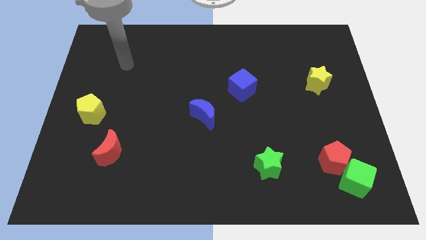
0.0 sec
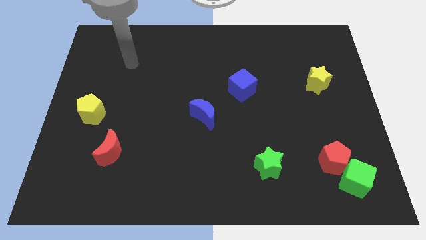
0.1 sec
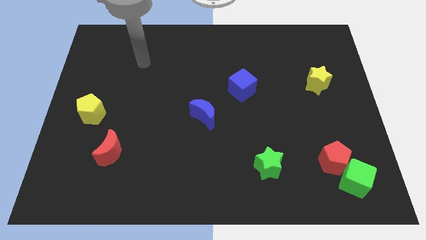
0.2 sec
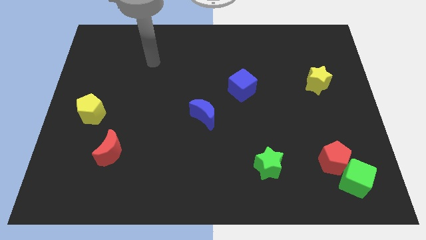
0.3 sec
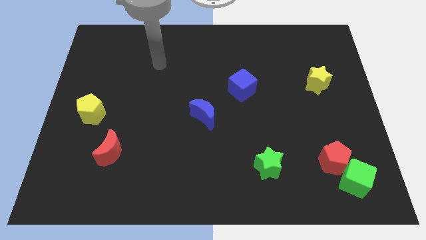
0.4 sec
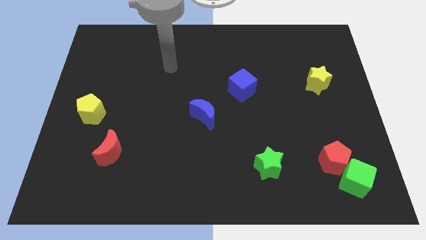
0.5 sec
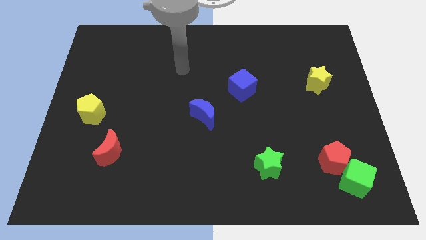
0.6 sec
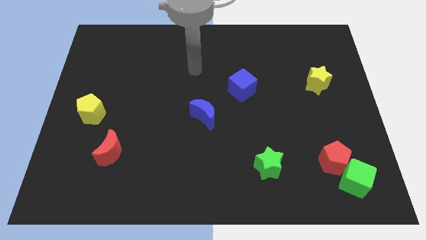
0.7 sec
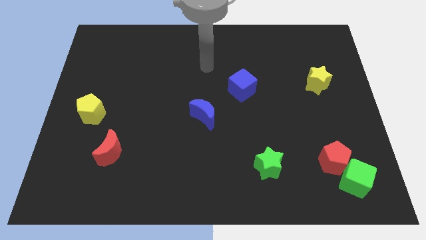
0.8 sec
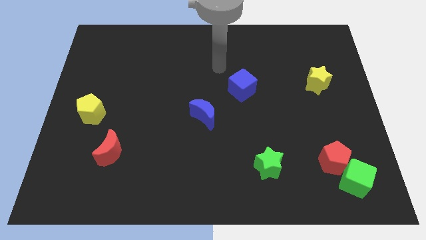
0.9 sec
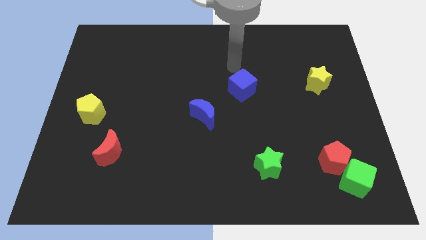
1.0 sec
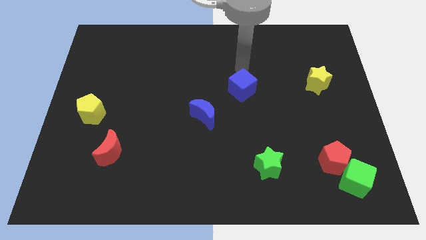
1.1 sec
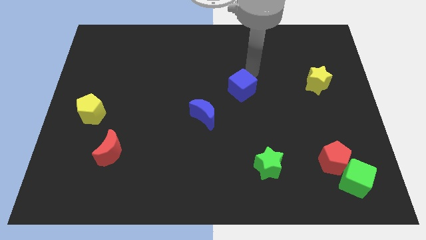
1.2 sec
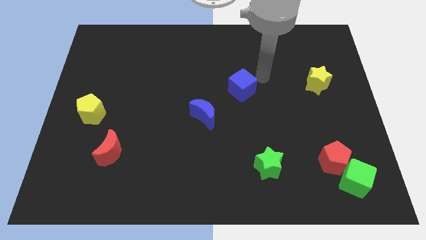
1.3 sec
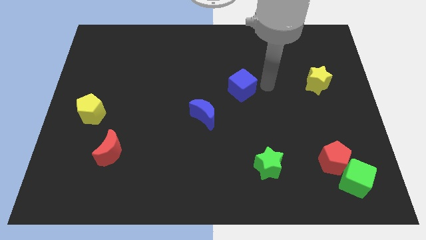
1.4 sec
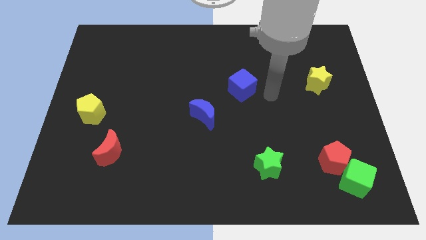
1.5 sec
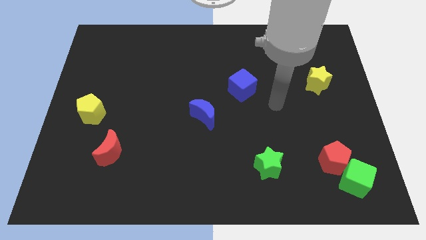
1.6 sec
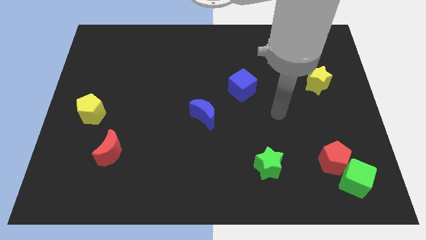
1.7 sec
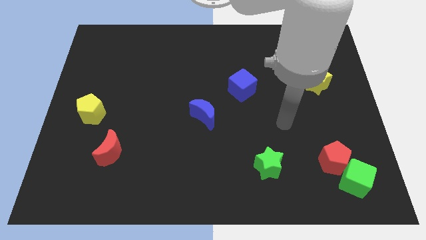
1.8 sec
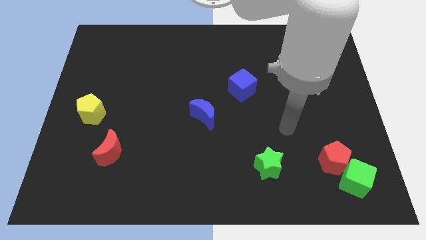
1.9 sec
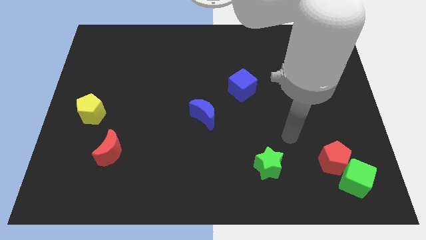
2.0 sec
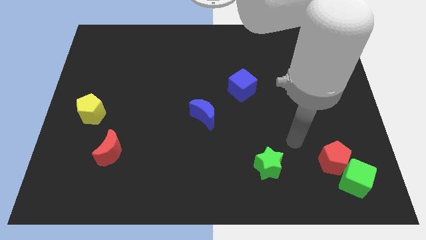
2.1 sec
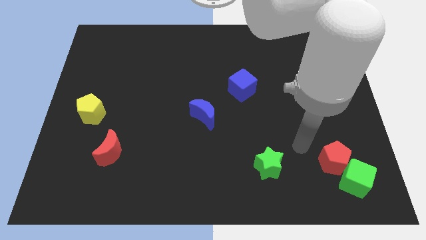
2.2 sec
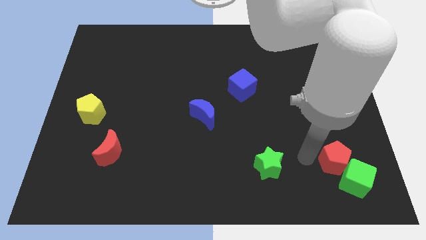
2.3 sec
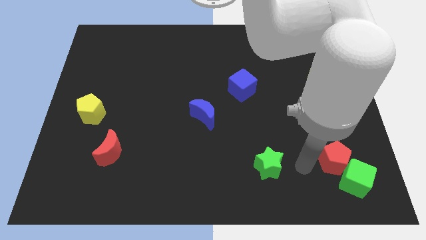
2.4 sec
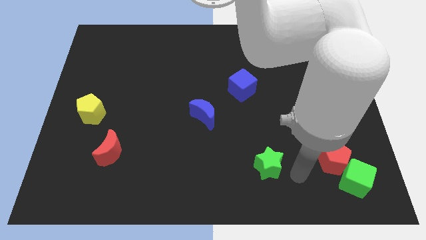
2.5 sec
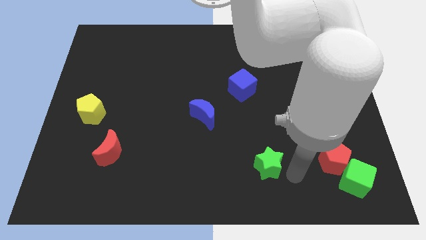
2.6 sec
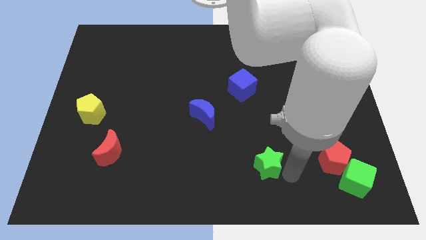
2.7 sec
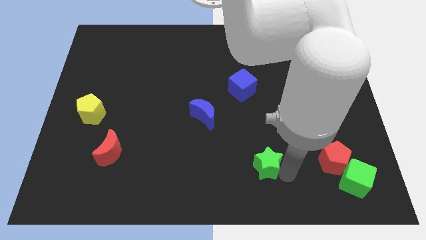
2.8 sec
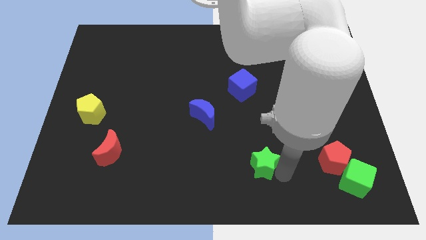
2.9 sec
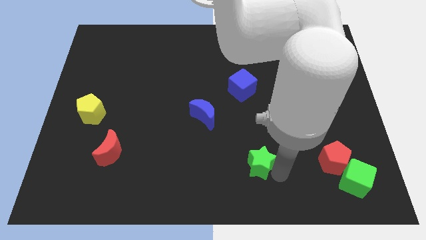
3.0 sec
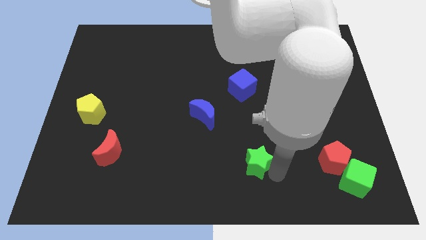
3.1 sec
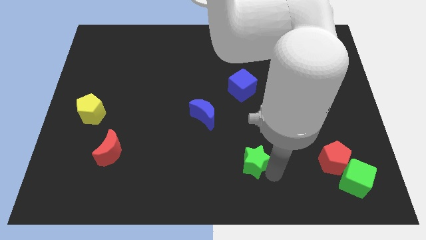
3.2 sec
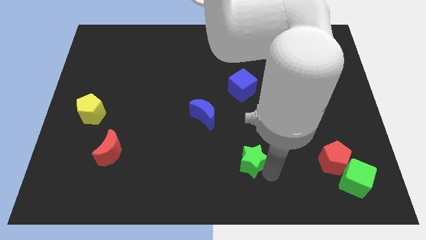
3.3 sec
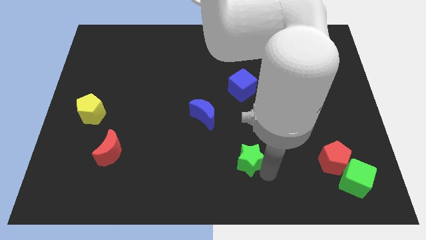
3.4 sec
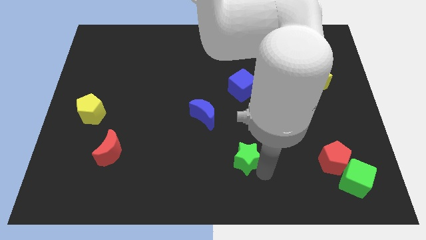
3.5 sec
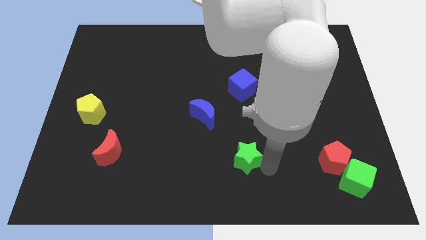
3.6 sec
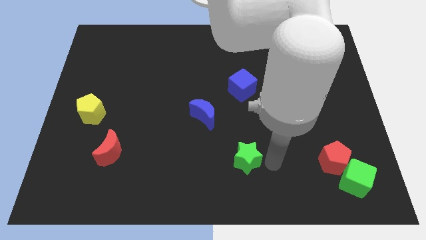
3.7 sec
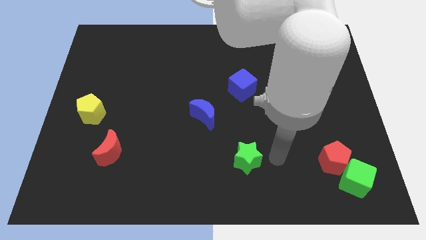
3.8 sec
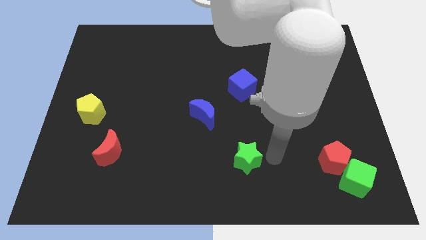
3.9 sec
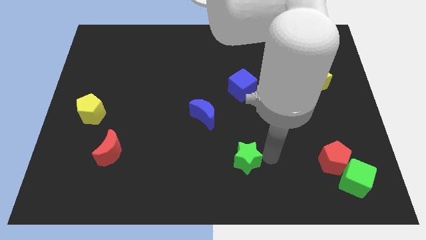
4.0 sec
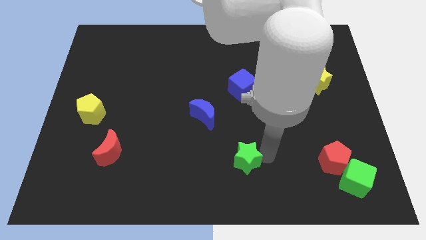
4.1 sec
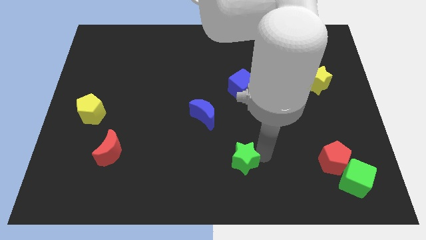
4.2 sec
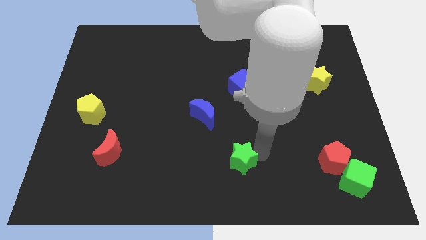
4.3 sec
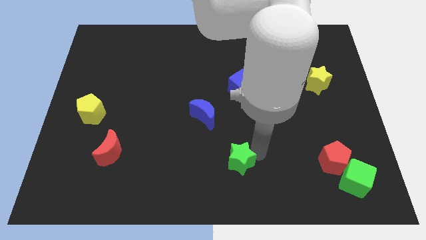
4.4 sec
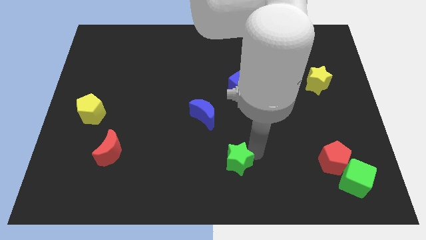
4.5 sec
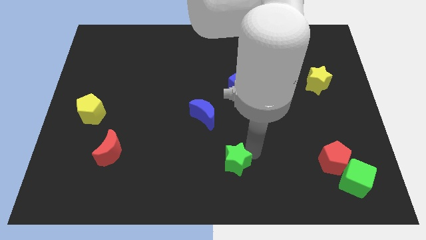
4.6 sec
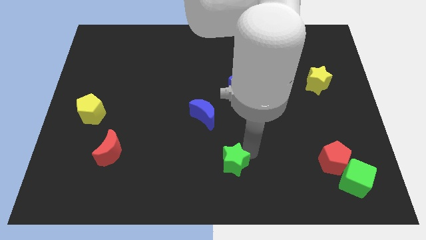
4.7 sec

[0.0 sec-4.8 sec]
push the green star left somewhat

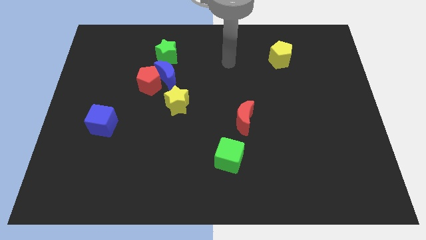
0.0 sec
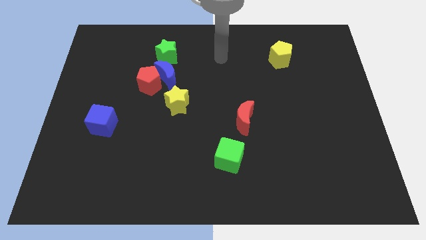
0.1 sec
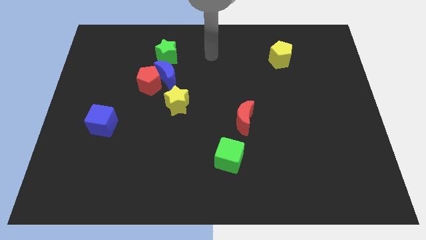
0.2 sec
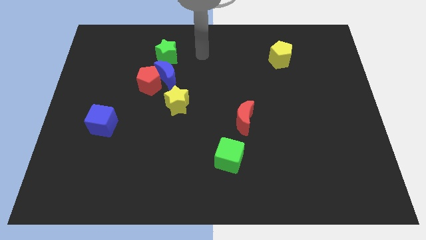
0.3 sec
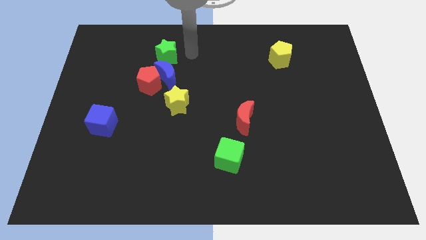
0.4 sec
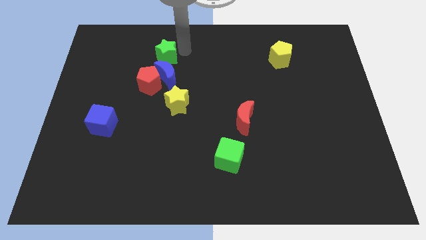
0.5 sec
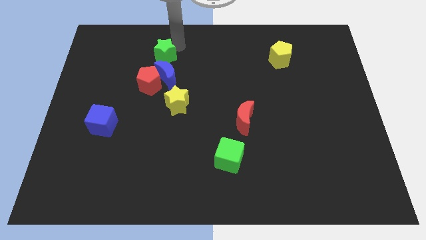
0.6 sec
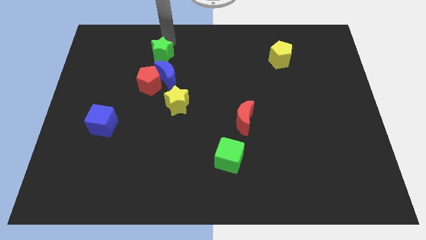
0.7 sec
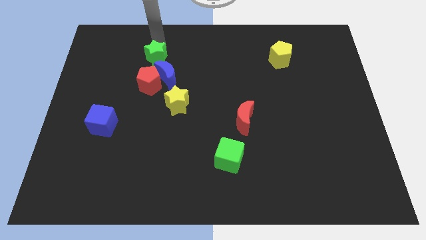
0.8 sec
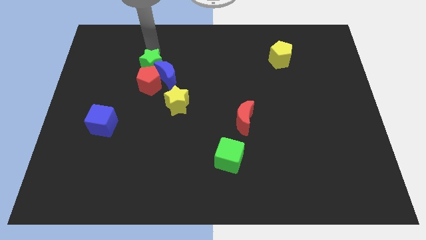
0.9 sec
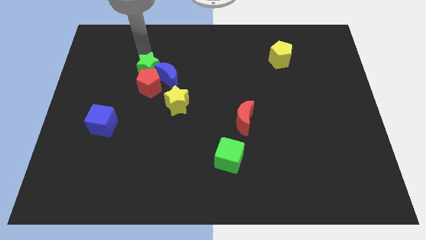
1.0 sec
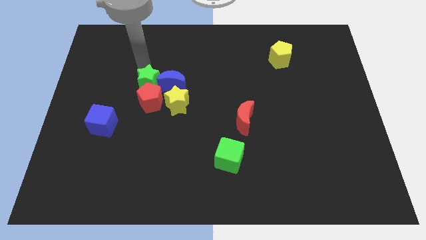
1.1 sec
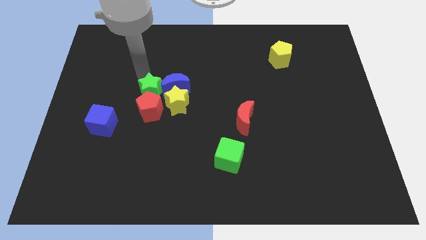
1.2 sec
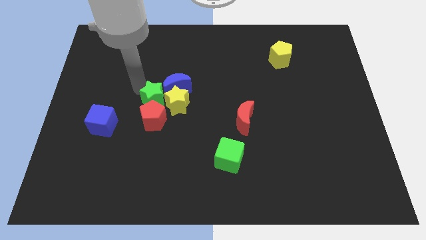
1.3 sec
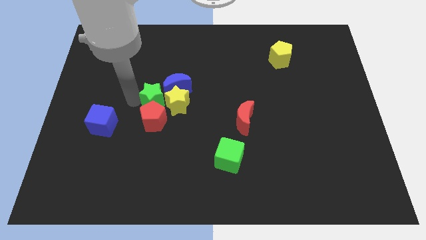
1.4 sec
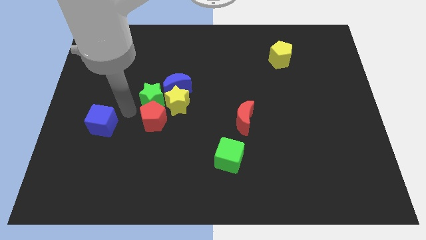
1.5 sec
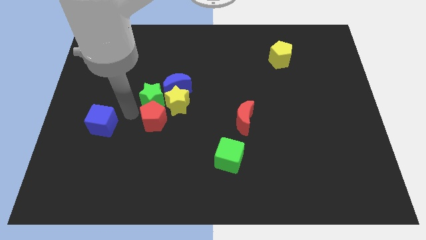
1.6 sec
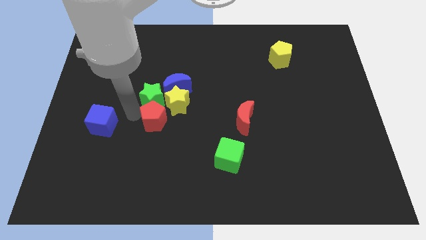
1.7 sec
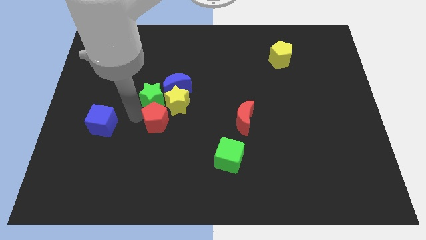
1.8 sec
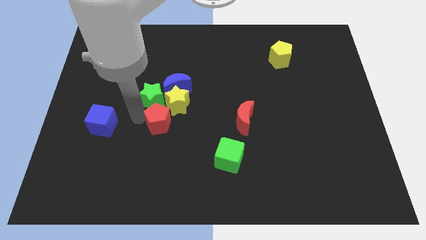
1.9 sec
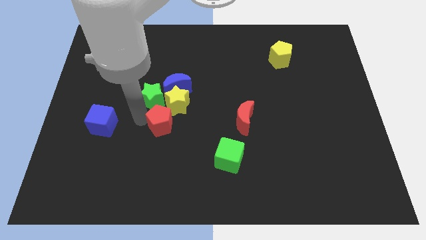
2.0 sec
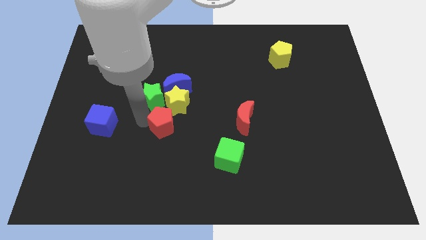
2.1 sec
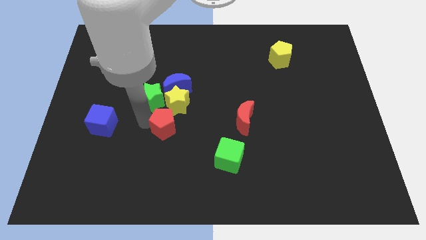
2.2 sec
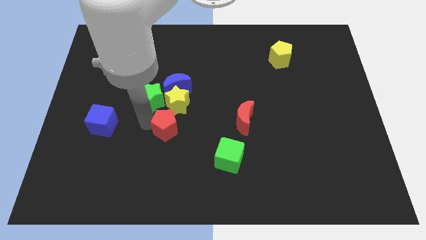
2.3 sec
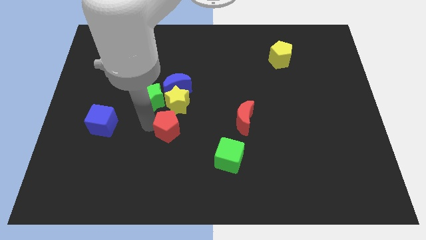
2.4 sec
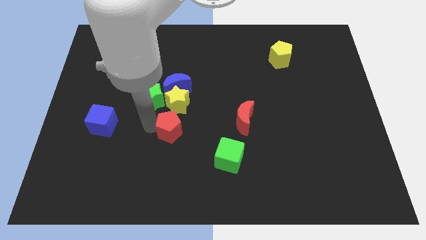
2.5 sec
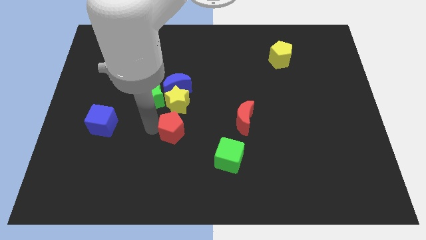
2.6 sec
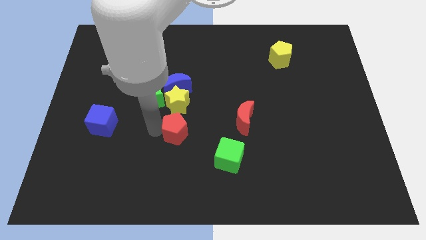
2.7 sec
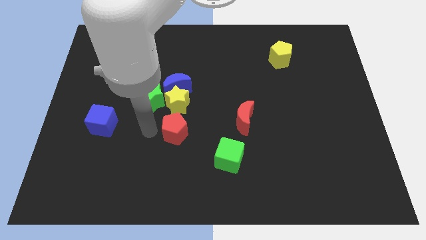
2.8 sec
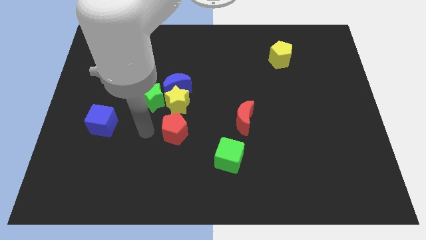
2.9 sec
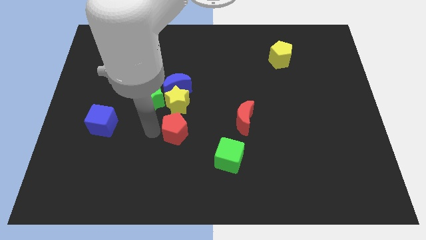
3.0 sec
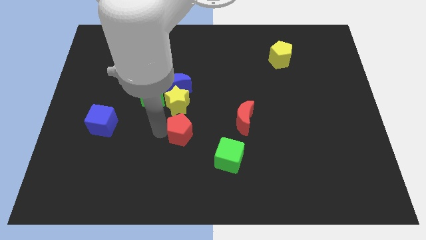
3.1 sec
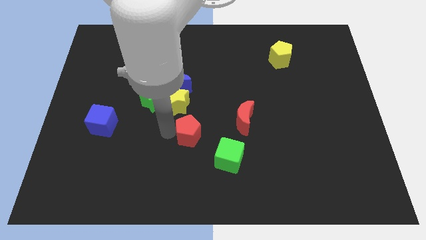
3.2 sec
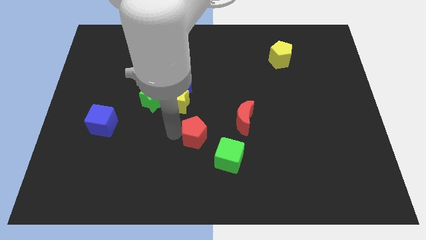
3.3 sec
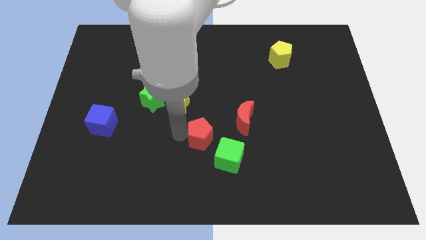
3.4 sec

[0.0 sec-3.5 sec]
push the red pentagon down and then right

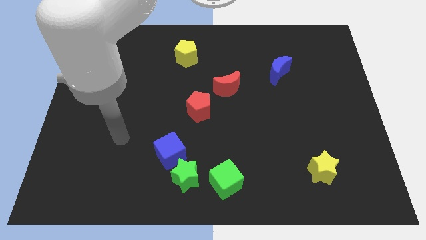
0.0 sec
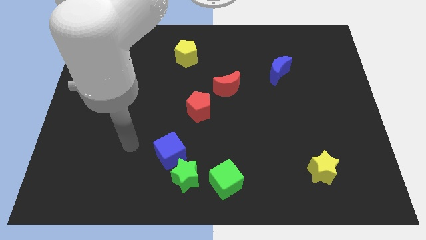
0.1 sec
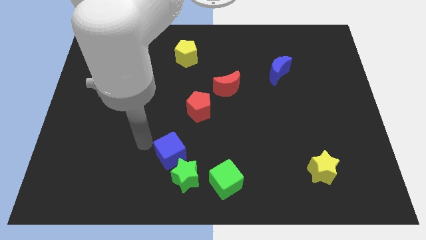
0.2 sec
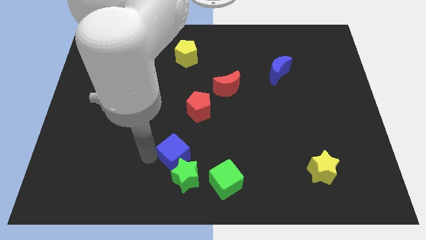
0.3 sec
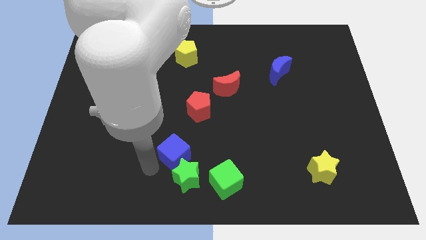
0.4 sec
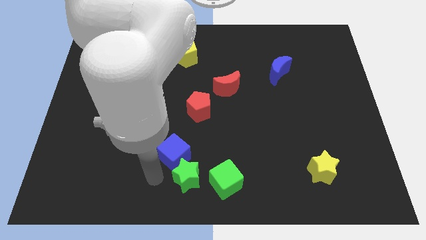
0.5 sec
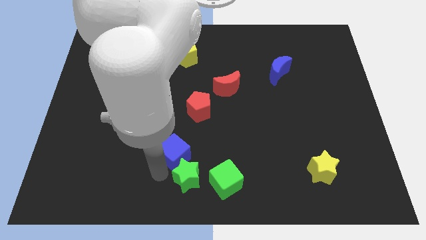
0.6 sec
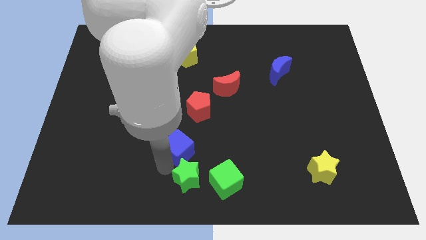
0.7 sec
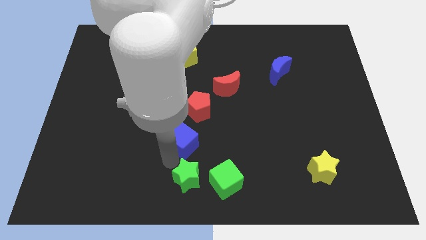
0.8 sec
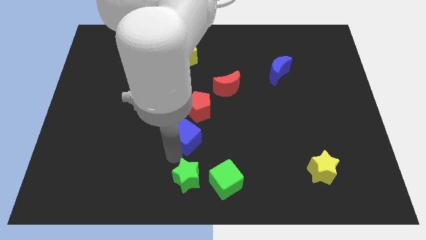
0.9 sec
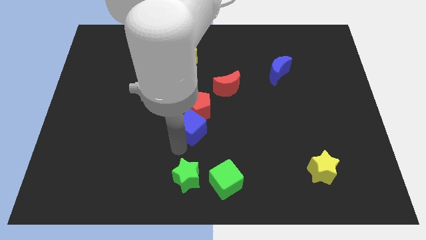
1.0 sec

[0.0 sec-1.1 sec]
push the blue cube up and to the right diagonally a little
